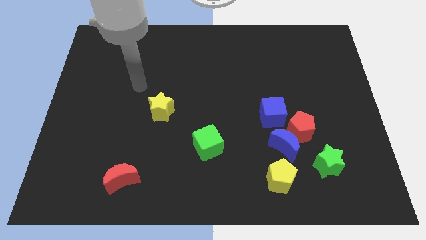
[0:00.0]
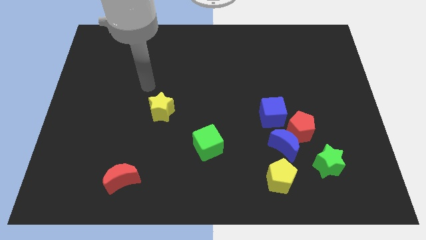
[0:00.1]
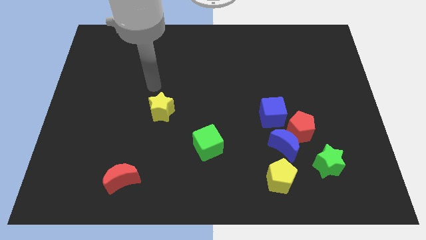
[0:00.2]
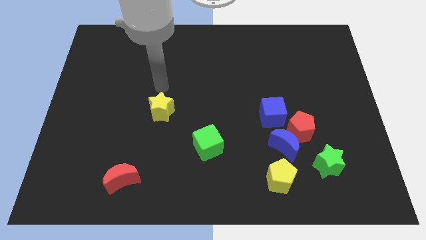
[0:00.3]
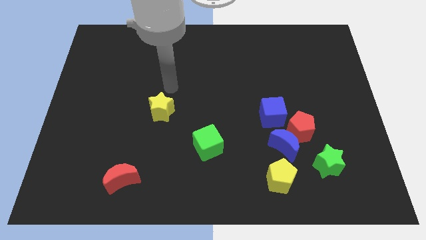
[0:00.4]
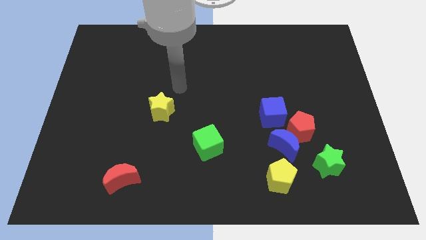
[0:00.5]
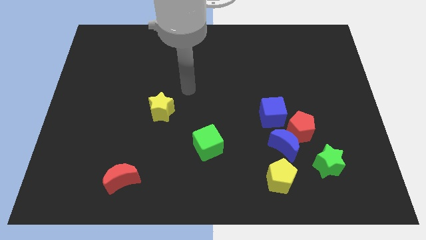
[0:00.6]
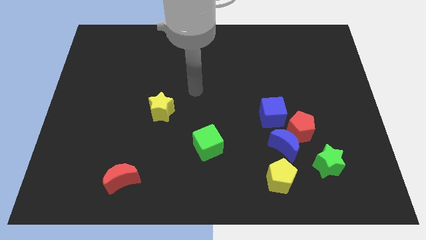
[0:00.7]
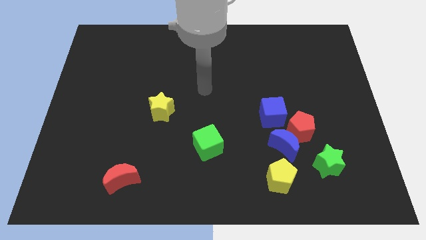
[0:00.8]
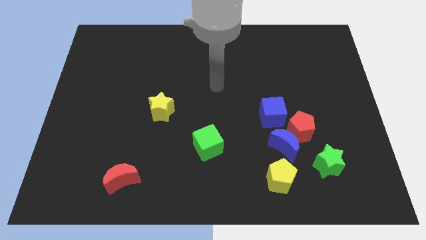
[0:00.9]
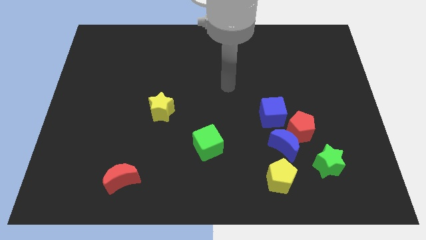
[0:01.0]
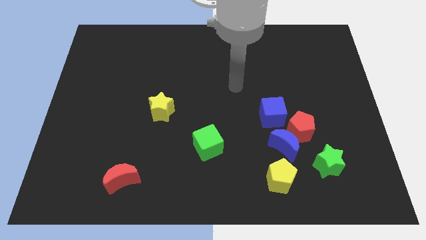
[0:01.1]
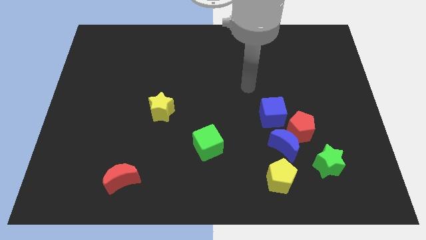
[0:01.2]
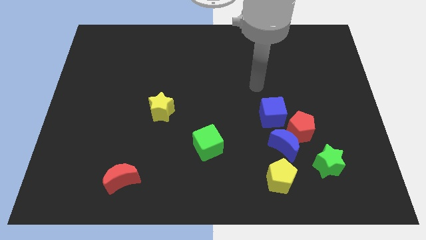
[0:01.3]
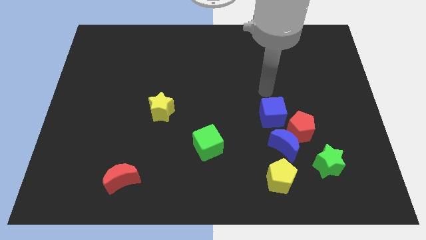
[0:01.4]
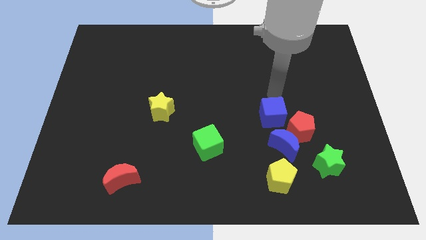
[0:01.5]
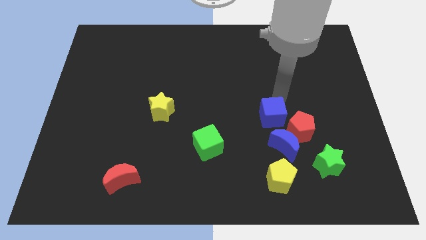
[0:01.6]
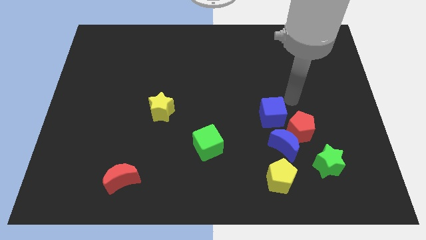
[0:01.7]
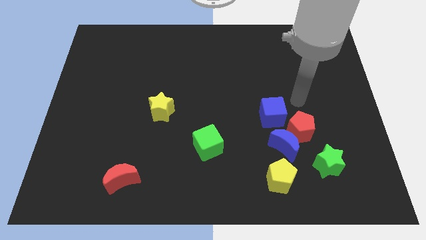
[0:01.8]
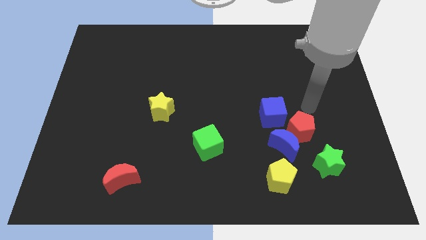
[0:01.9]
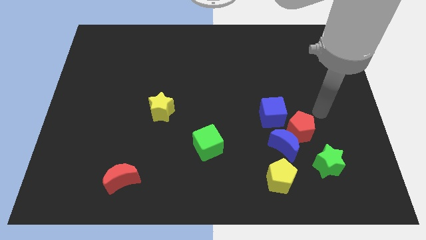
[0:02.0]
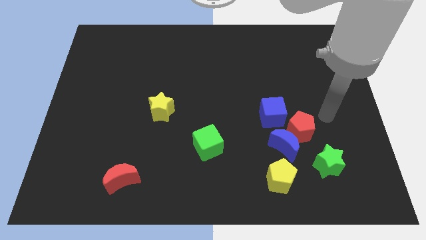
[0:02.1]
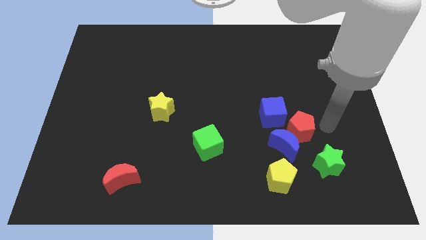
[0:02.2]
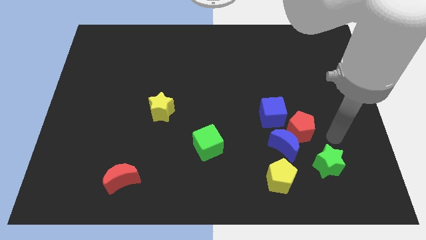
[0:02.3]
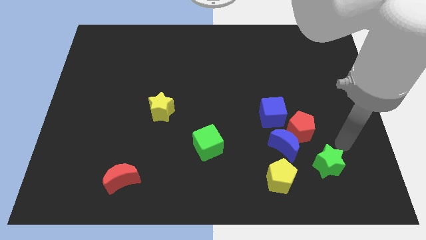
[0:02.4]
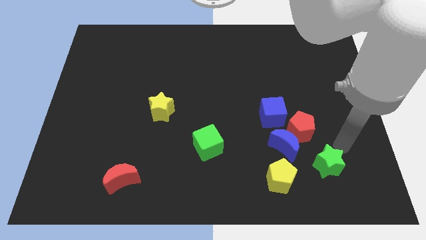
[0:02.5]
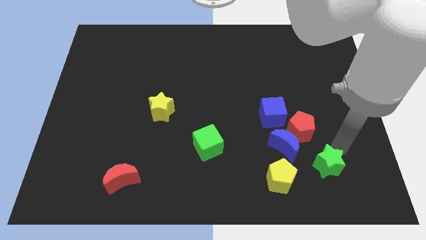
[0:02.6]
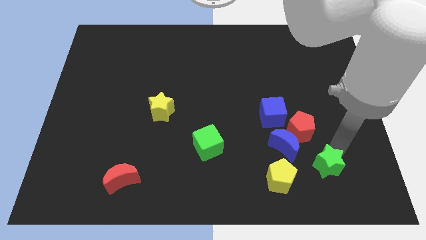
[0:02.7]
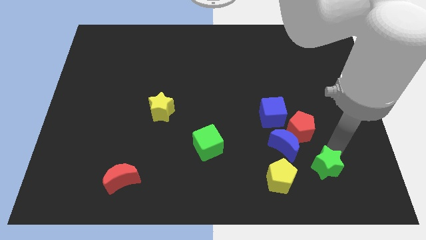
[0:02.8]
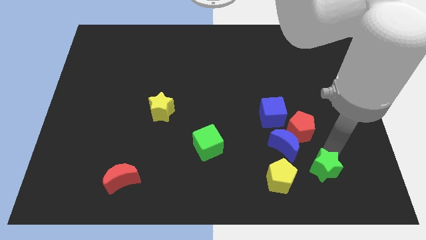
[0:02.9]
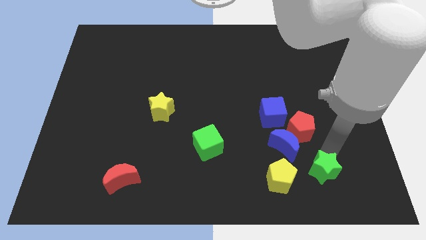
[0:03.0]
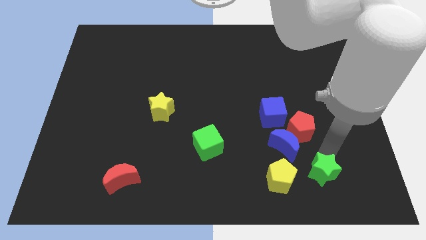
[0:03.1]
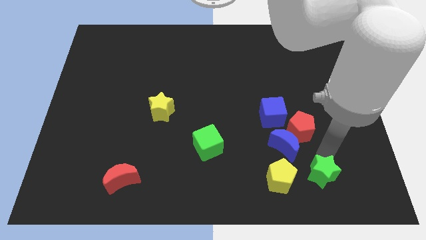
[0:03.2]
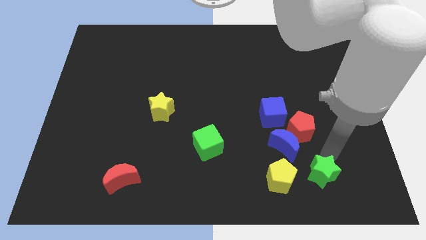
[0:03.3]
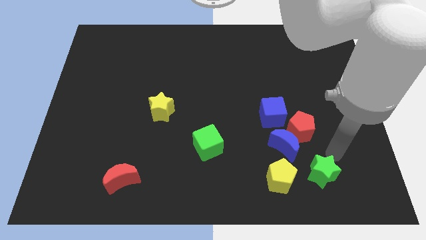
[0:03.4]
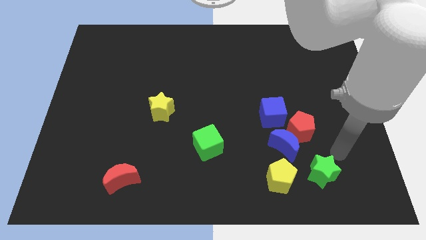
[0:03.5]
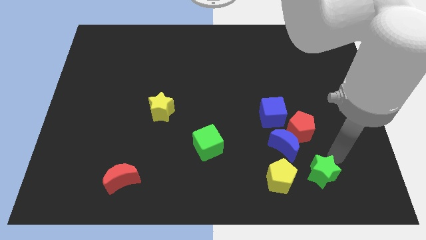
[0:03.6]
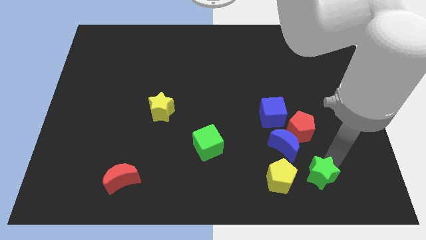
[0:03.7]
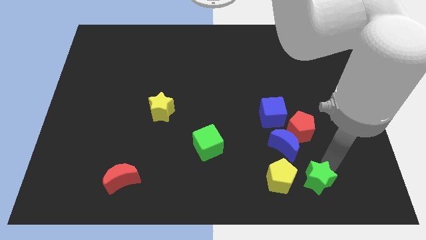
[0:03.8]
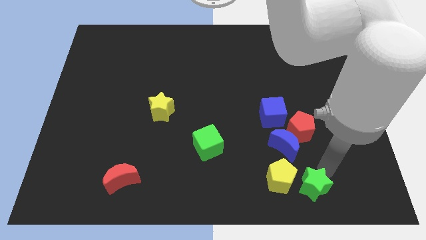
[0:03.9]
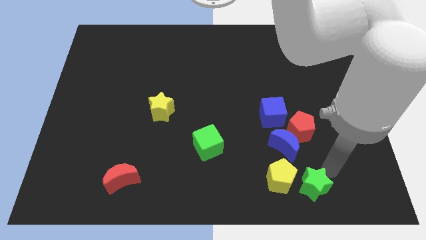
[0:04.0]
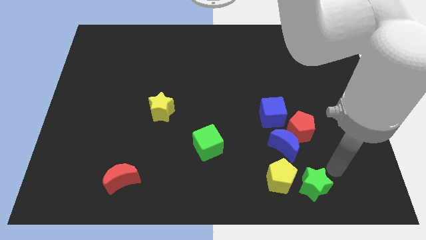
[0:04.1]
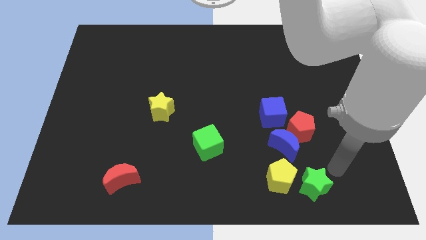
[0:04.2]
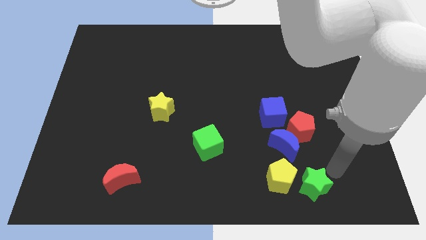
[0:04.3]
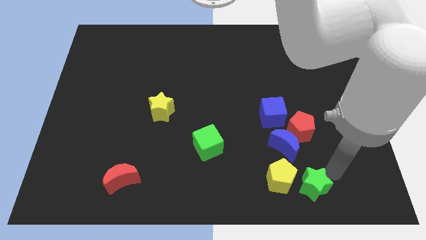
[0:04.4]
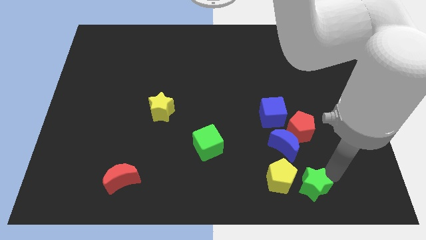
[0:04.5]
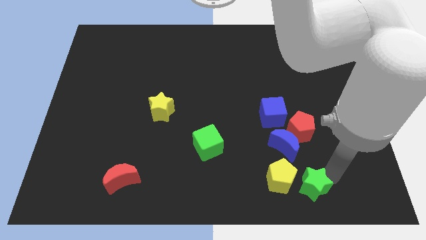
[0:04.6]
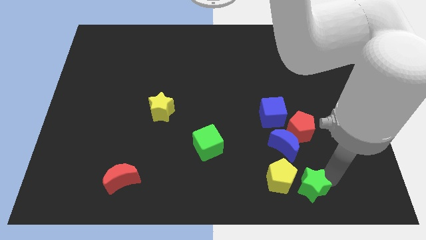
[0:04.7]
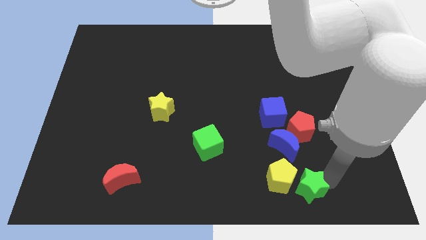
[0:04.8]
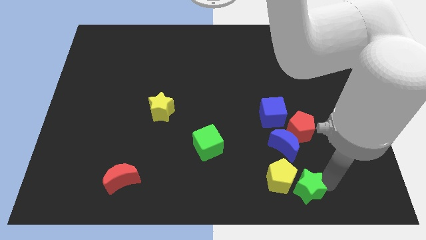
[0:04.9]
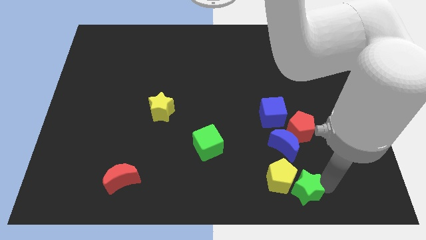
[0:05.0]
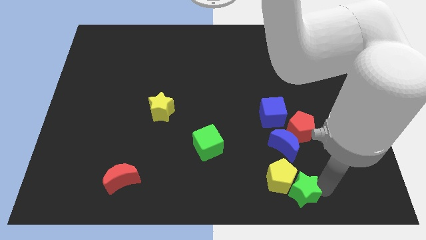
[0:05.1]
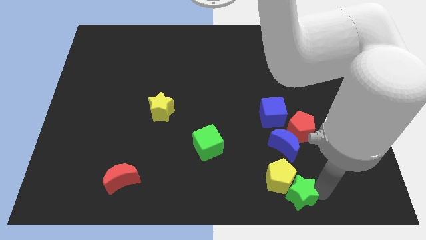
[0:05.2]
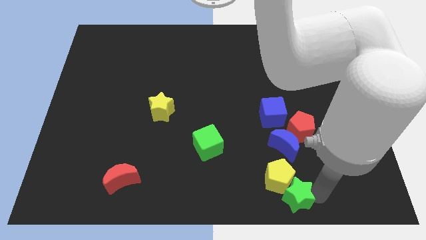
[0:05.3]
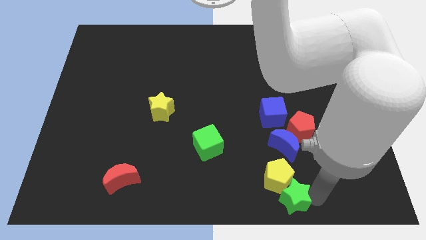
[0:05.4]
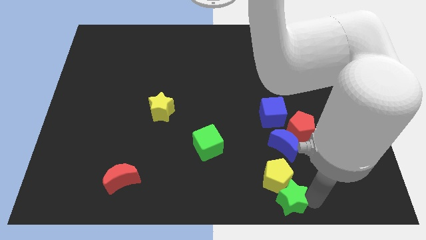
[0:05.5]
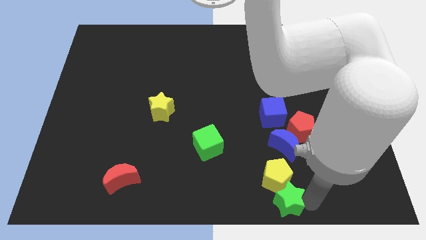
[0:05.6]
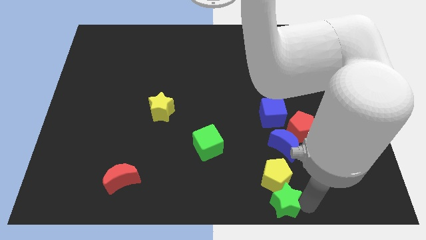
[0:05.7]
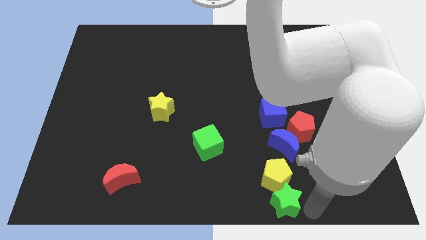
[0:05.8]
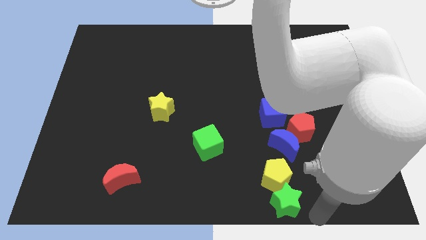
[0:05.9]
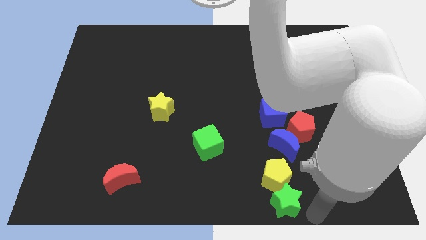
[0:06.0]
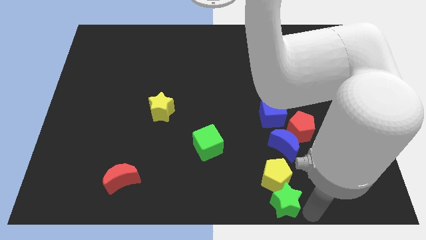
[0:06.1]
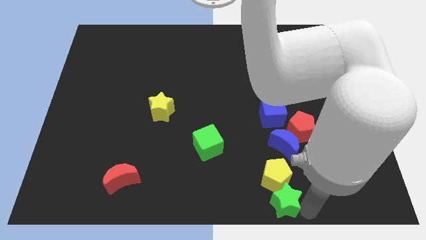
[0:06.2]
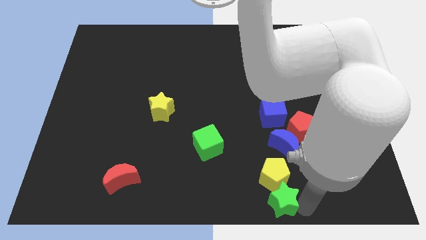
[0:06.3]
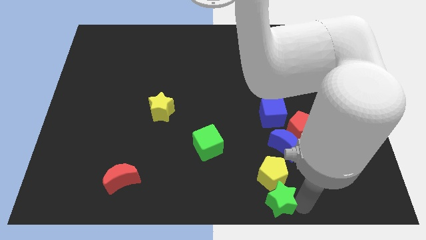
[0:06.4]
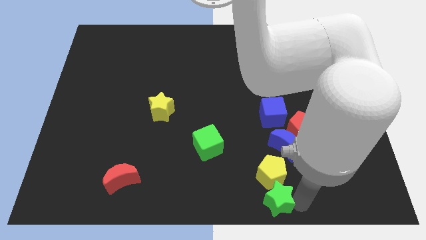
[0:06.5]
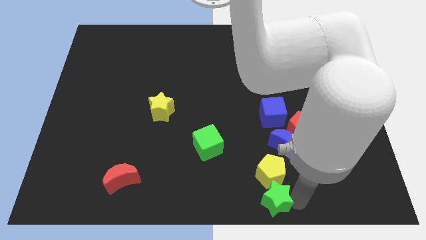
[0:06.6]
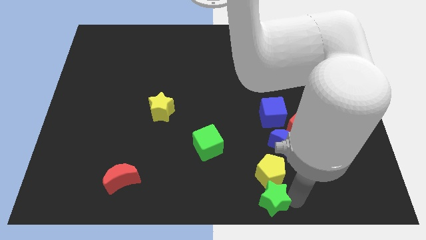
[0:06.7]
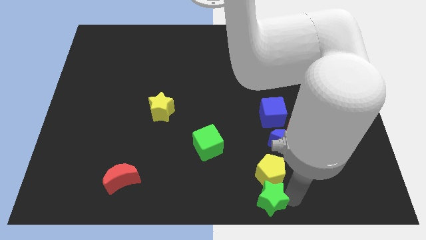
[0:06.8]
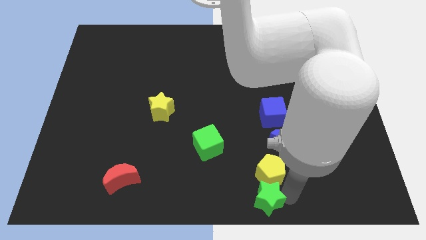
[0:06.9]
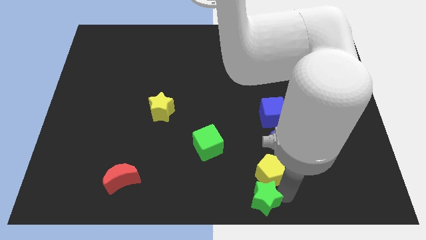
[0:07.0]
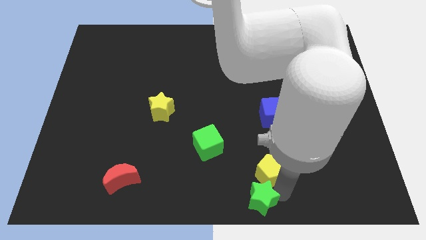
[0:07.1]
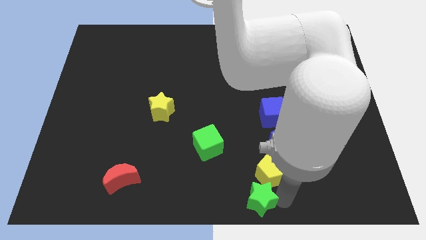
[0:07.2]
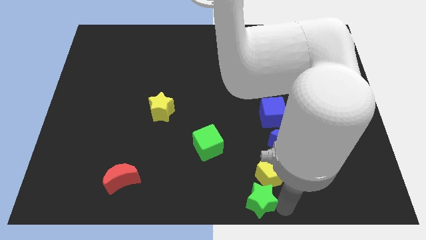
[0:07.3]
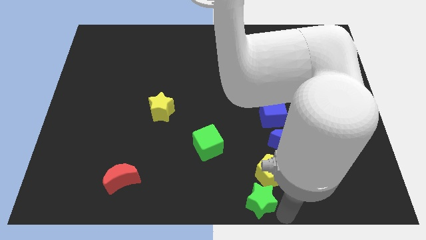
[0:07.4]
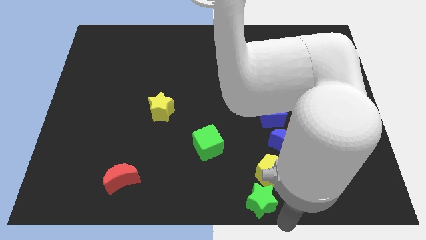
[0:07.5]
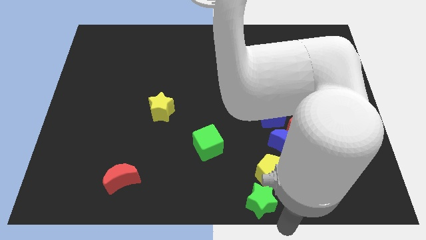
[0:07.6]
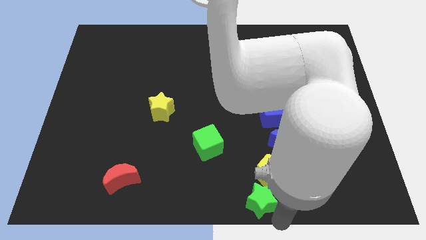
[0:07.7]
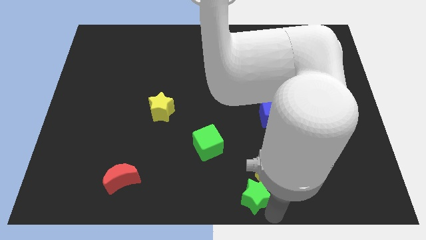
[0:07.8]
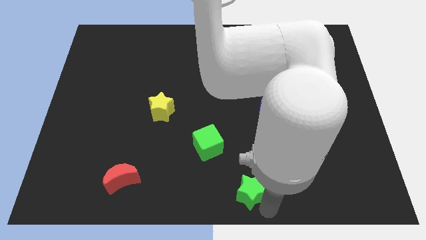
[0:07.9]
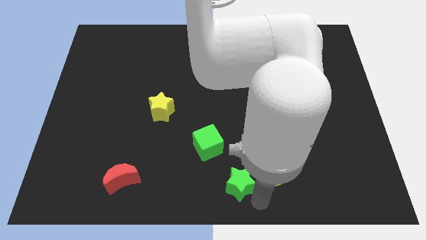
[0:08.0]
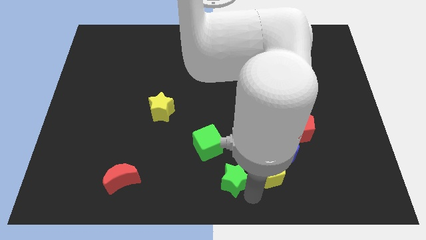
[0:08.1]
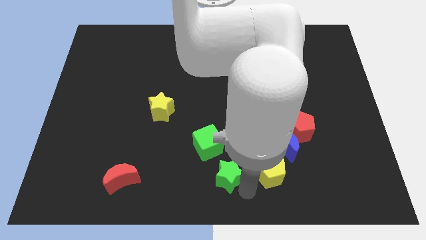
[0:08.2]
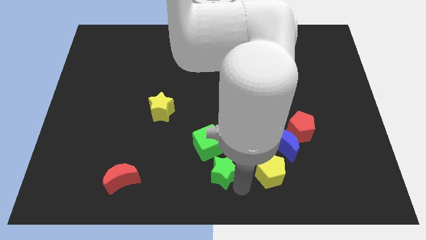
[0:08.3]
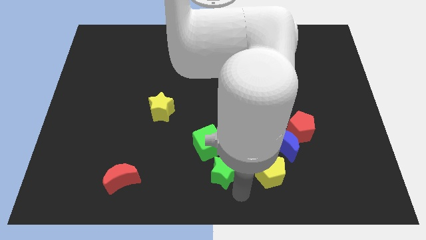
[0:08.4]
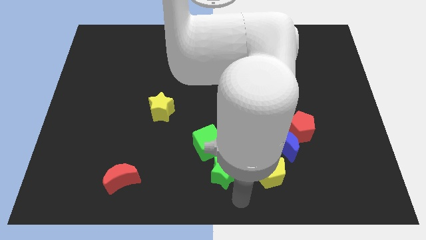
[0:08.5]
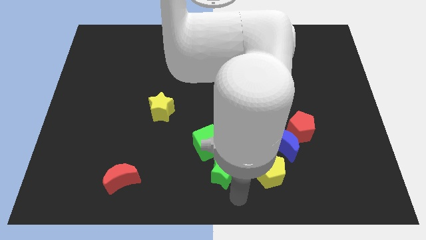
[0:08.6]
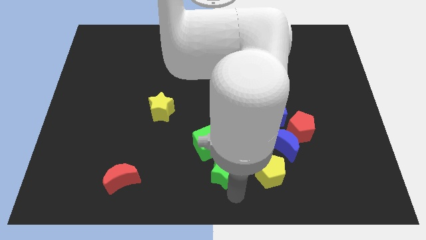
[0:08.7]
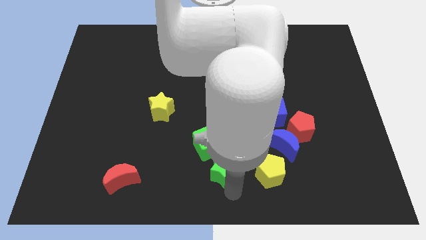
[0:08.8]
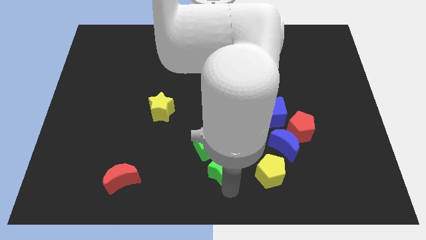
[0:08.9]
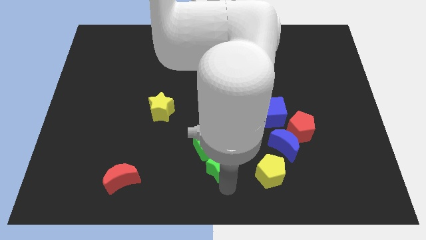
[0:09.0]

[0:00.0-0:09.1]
put the green star to the green cube
